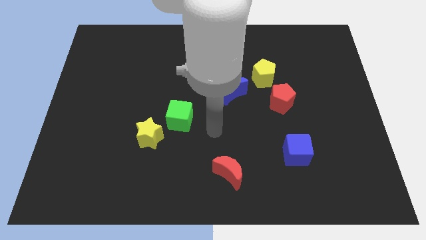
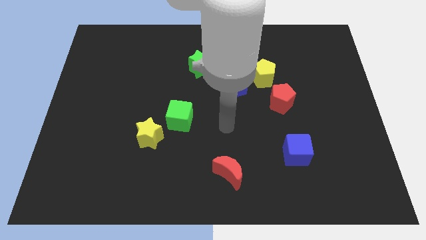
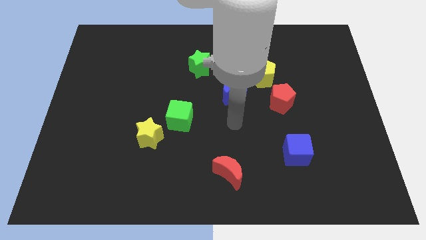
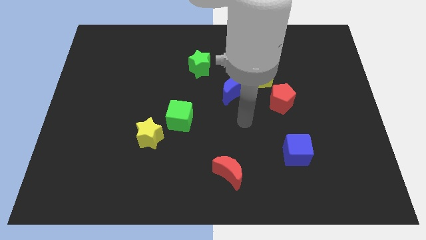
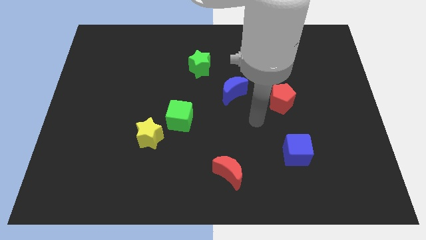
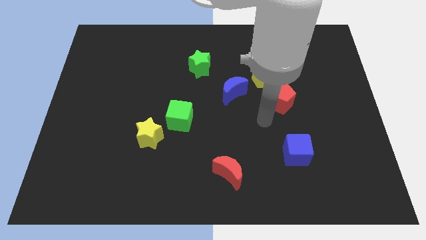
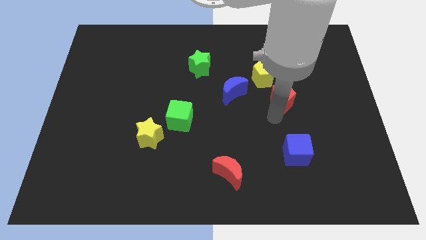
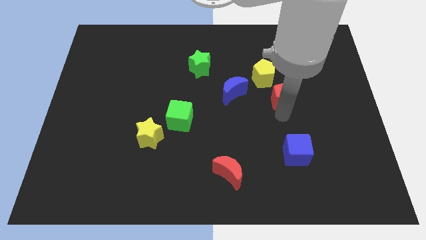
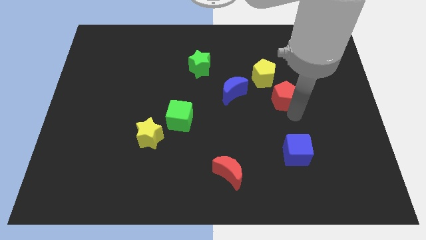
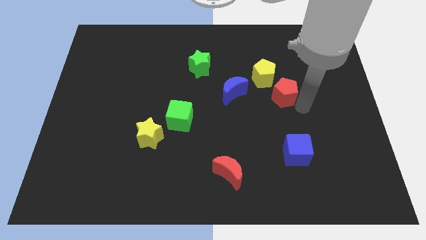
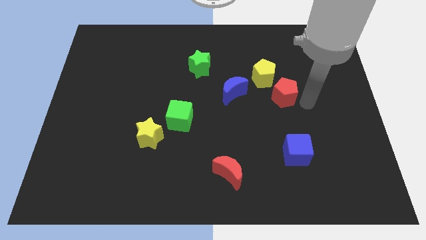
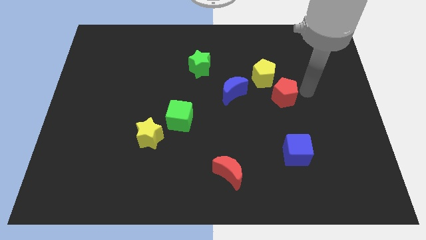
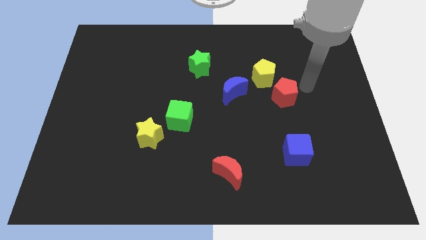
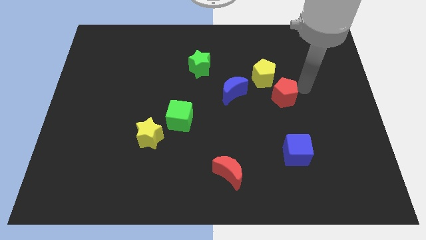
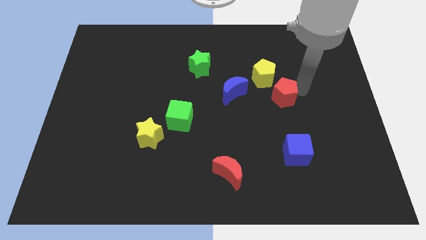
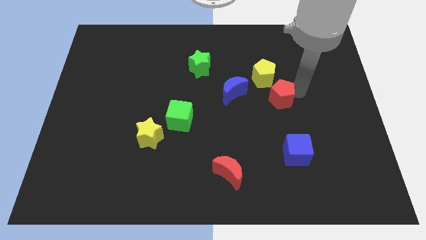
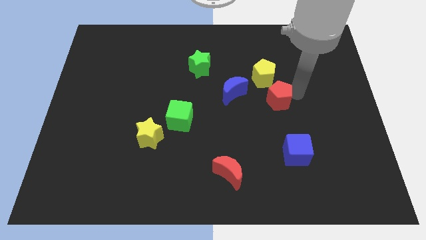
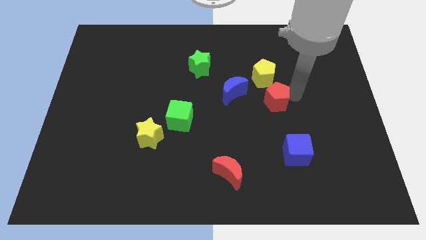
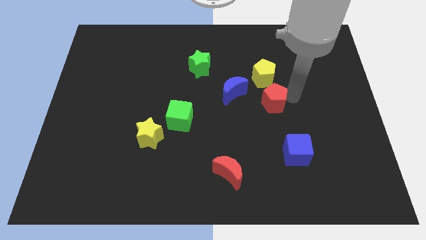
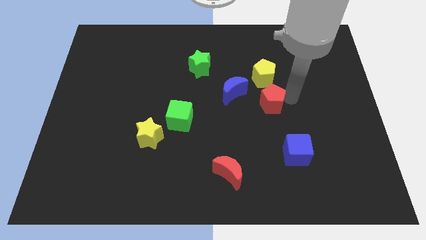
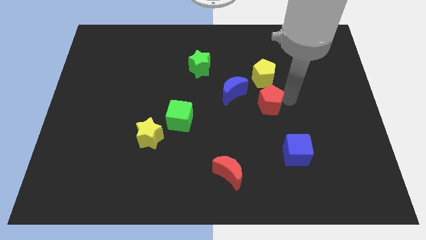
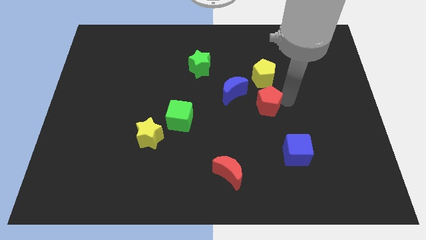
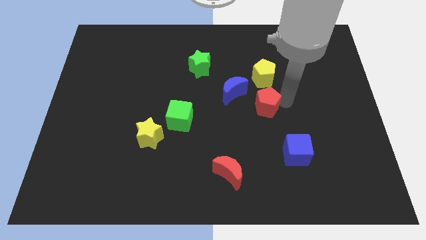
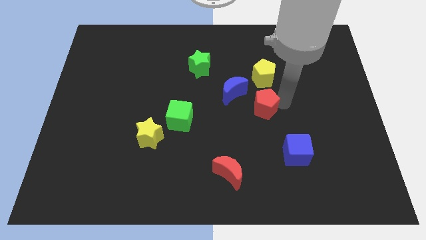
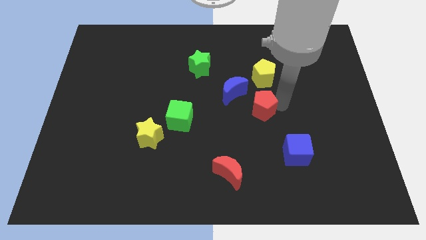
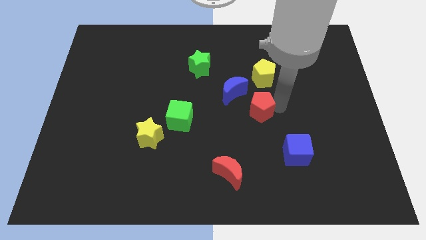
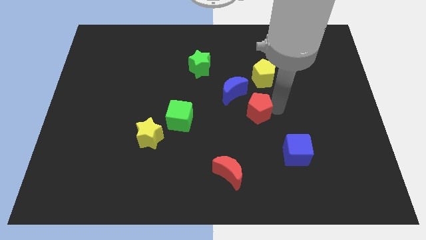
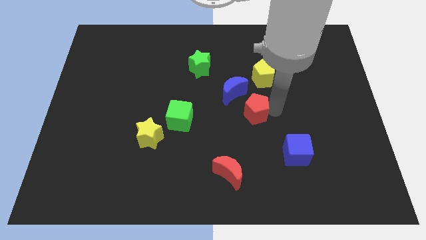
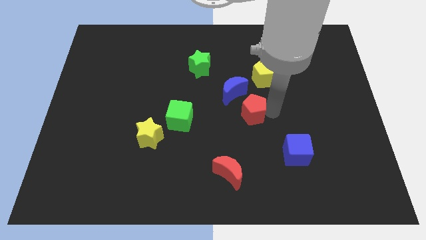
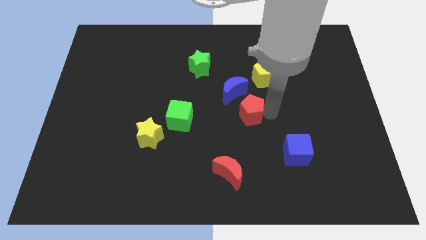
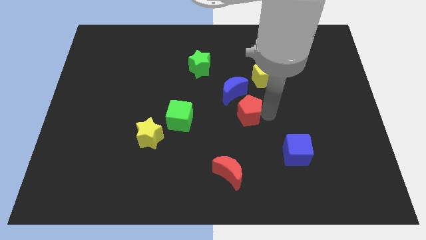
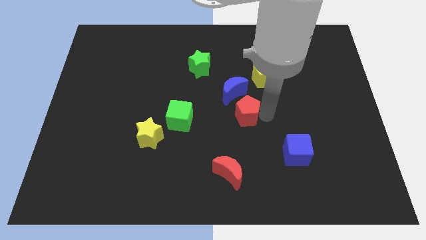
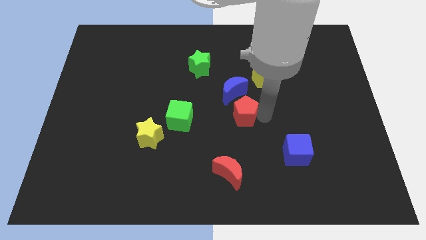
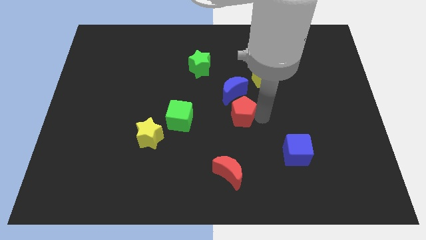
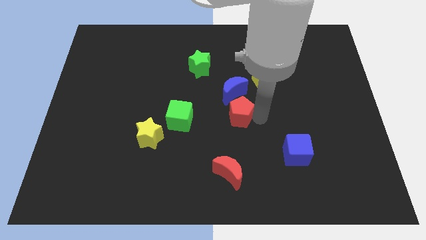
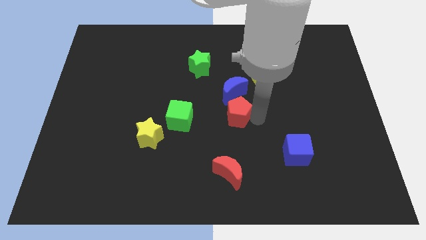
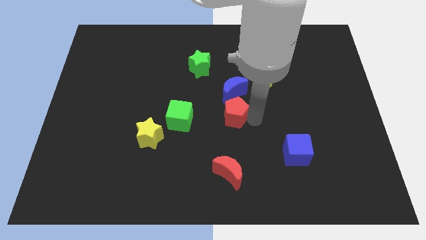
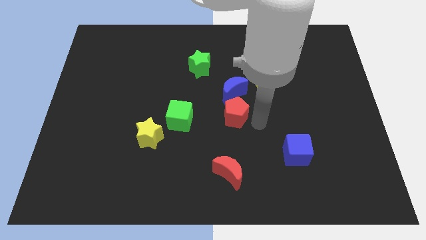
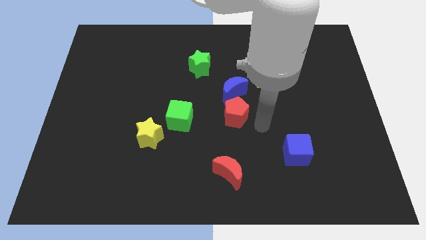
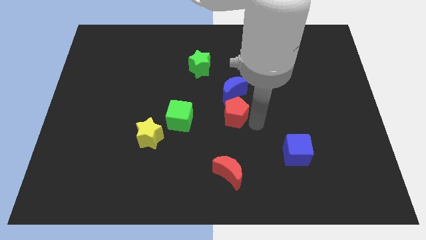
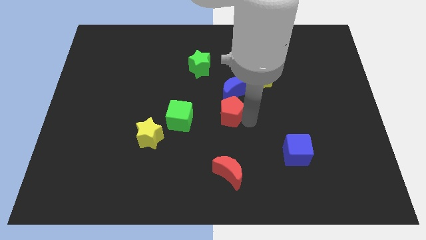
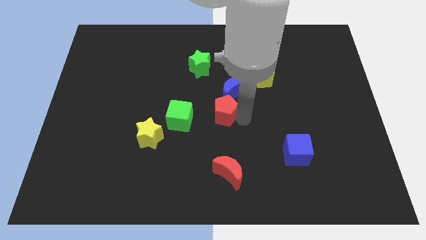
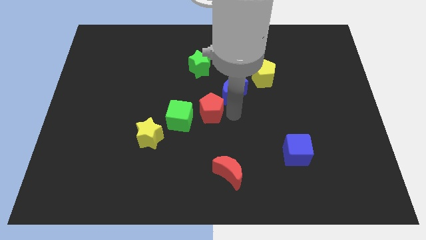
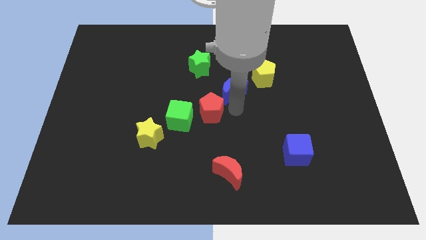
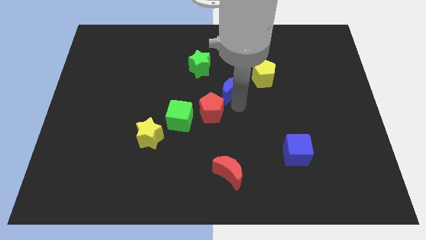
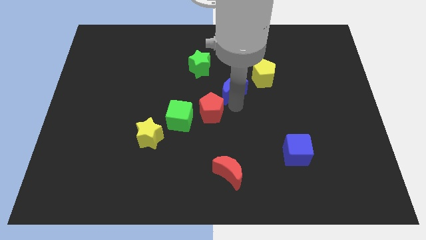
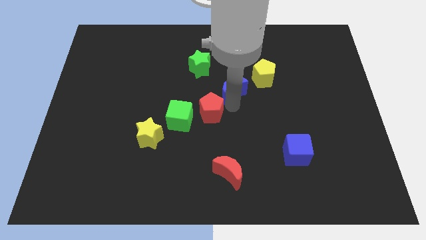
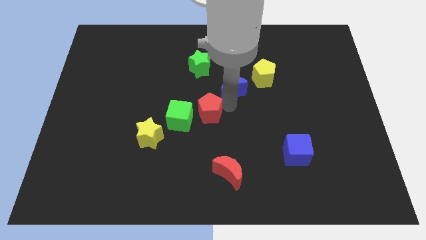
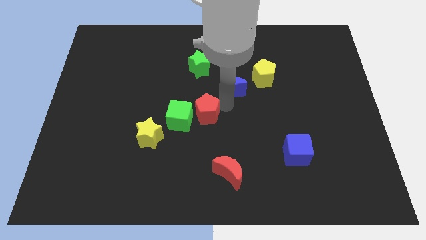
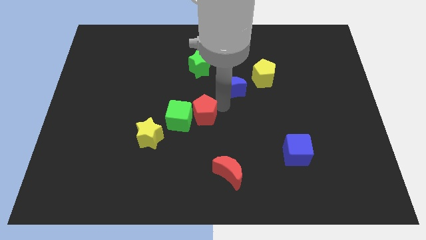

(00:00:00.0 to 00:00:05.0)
slide the red pentagon close to the green cube

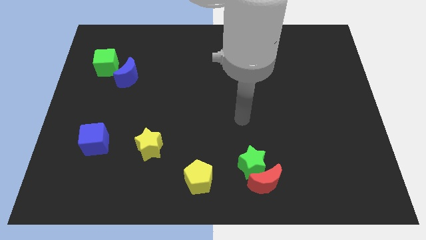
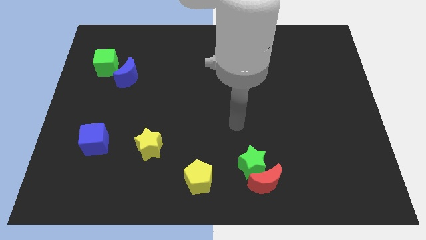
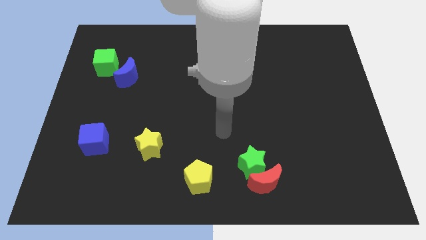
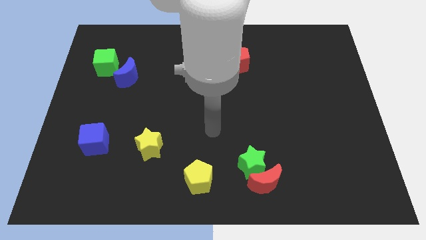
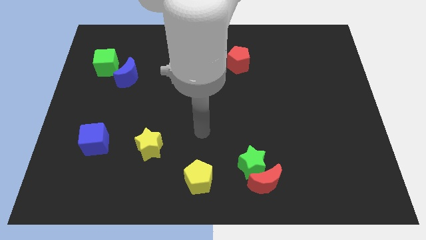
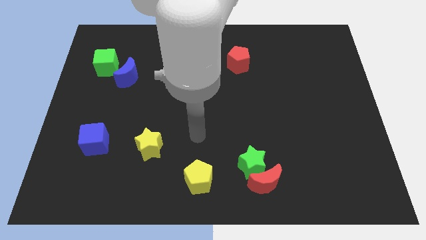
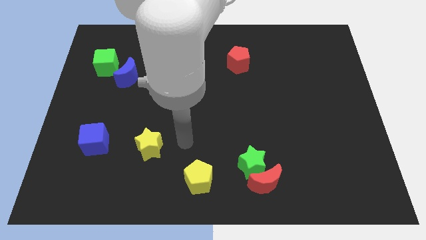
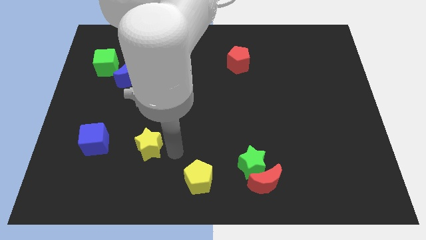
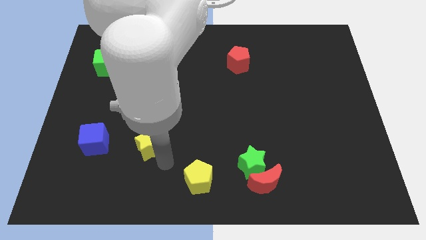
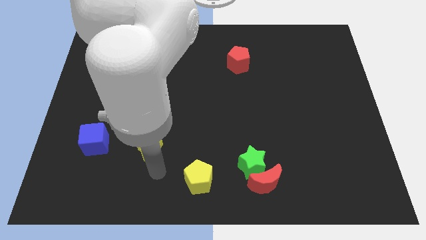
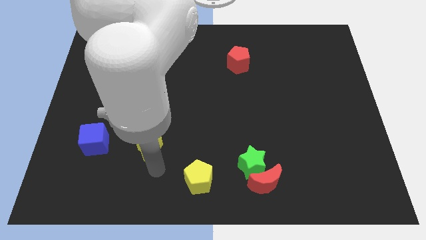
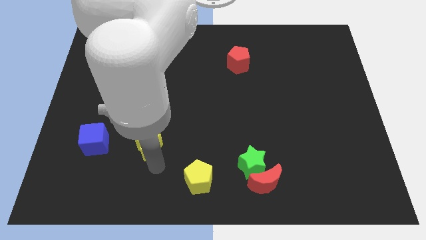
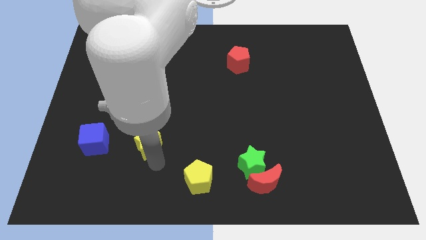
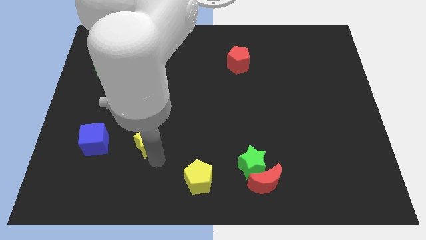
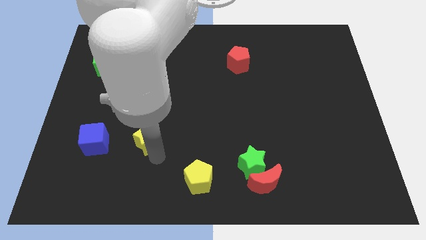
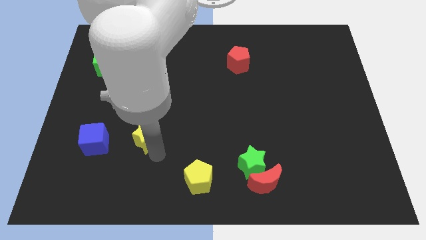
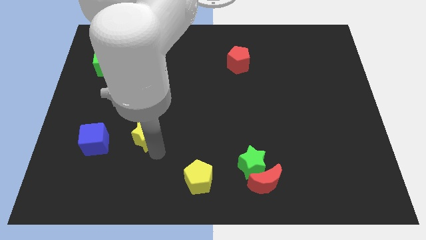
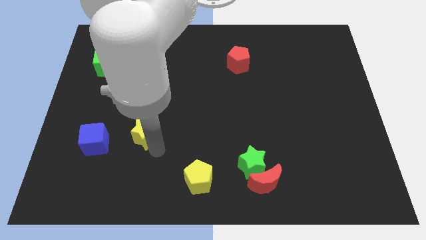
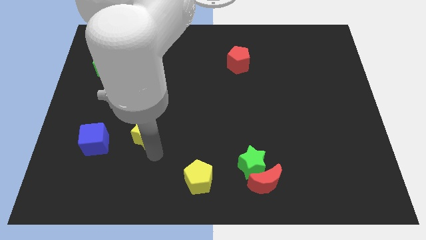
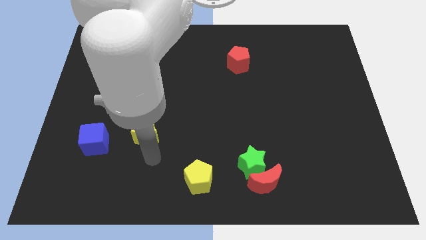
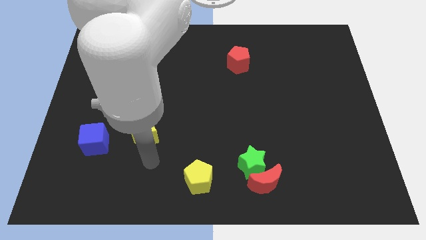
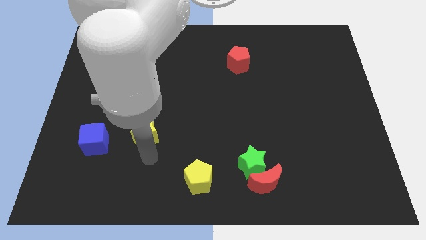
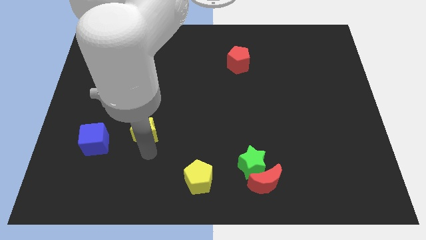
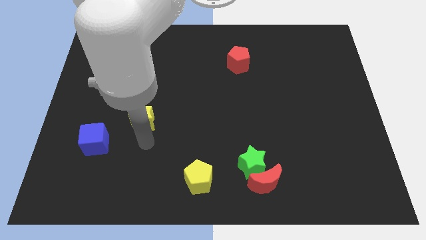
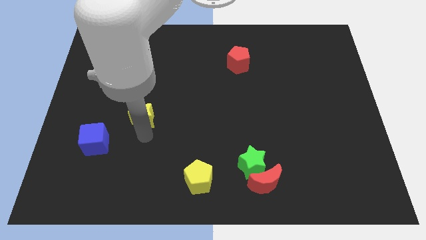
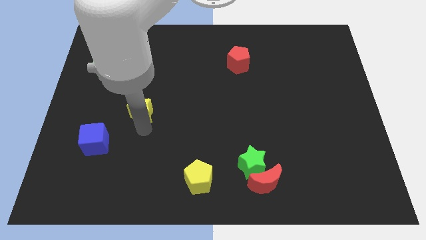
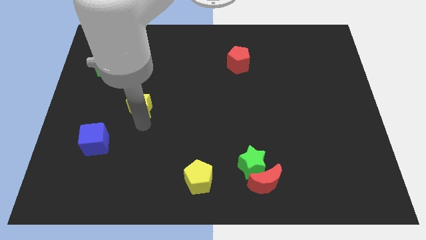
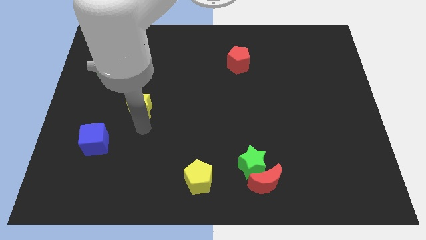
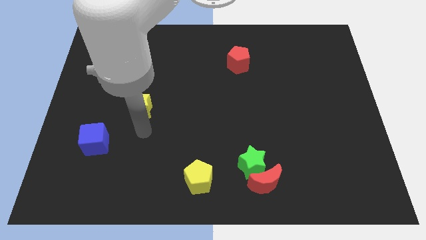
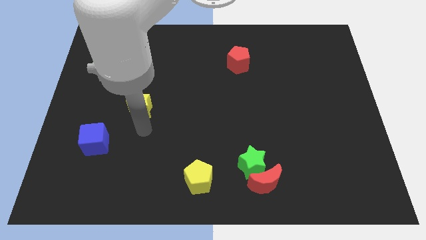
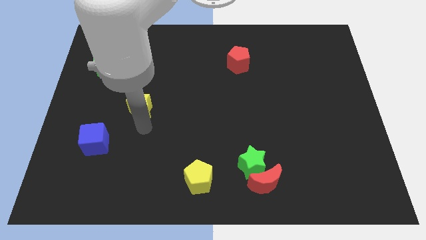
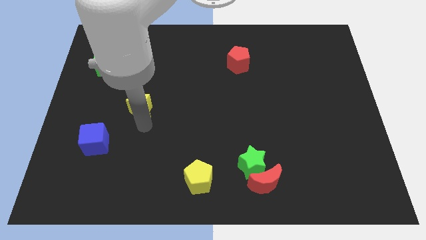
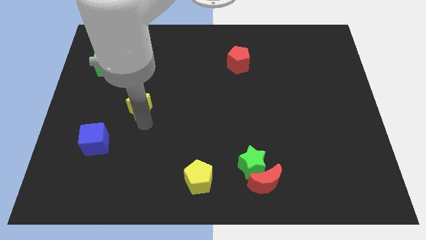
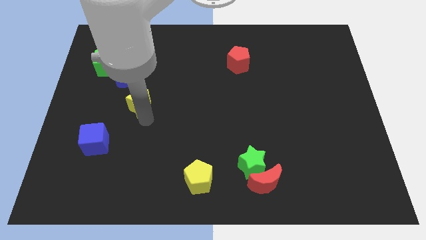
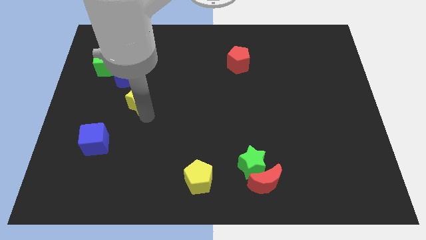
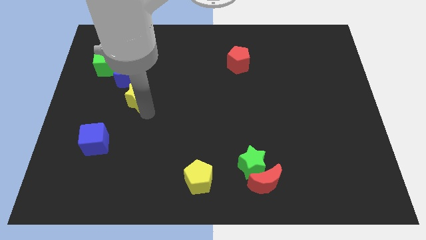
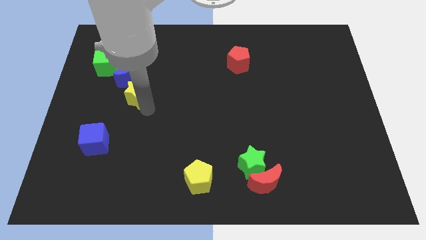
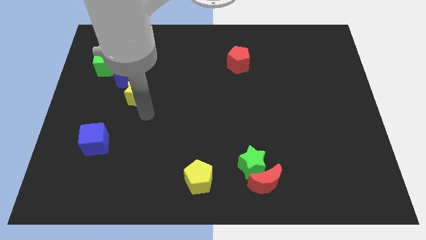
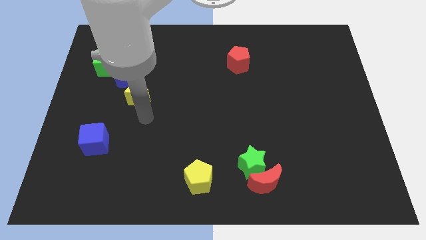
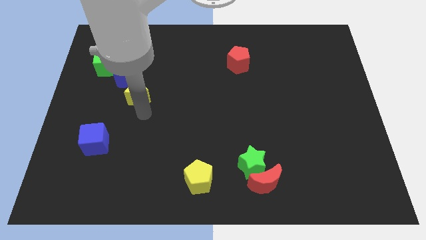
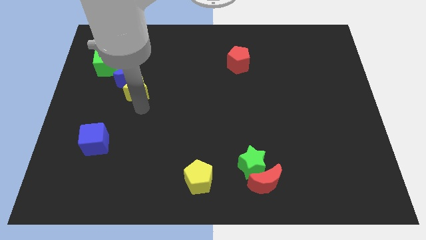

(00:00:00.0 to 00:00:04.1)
slide the yellow star next to the blue moon
